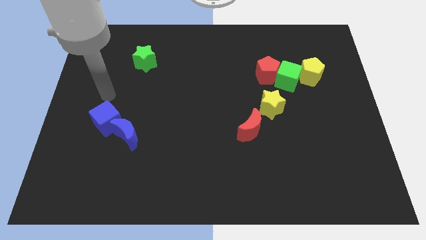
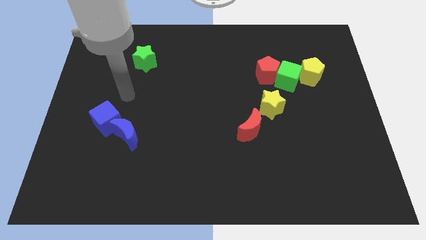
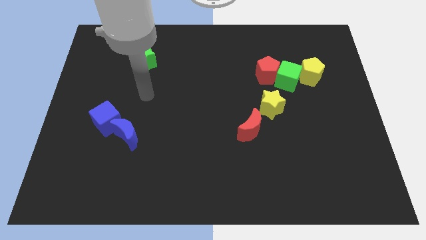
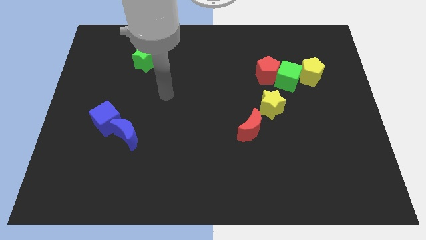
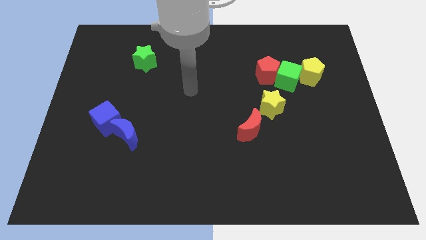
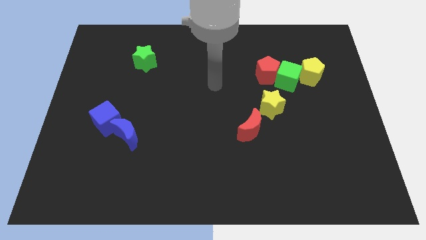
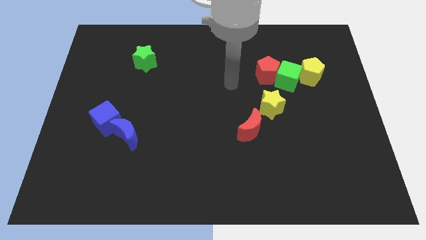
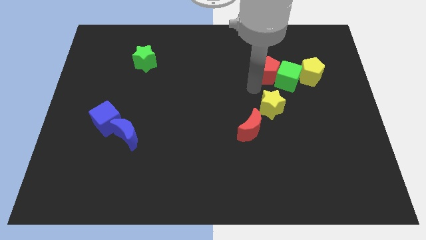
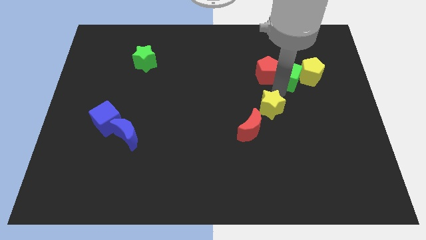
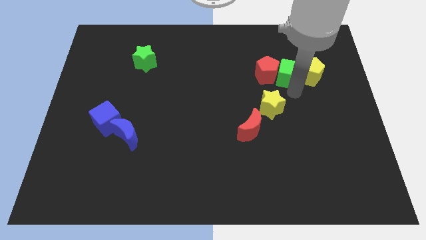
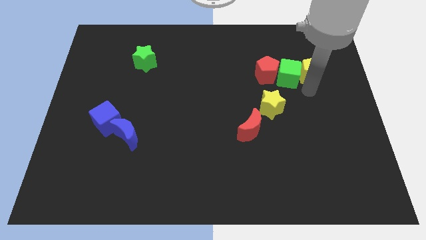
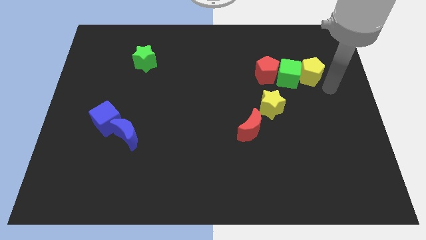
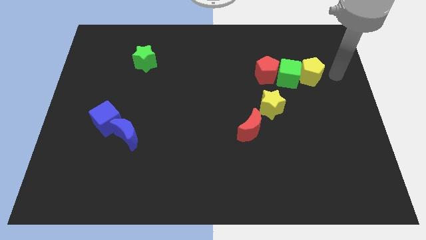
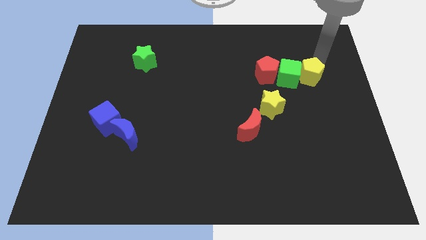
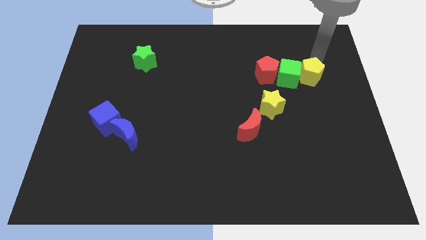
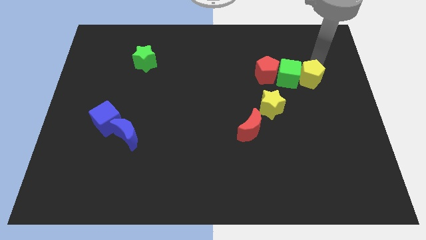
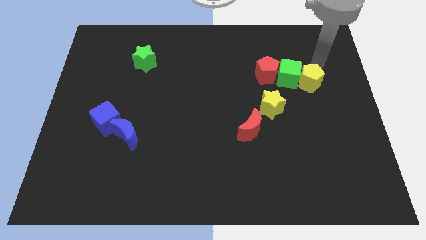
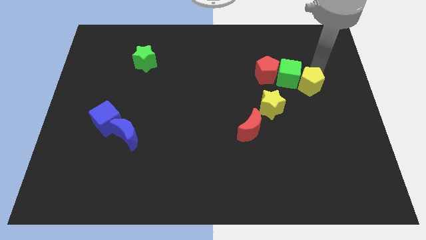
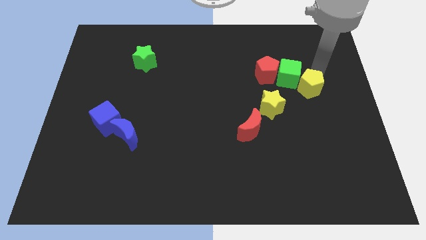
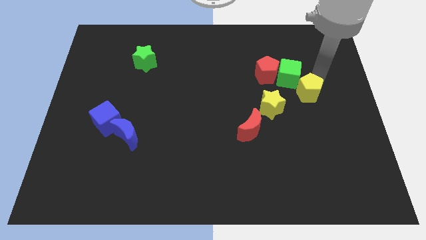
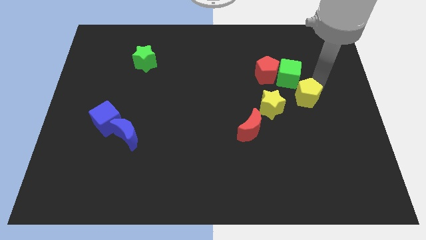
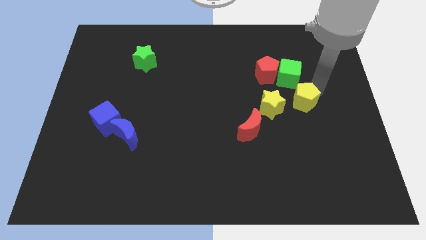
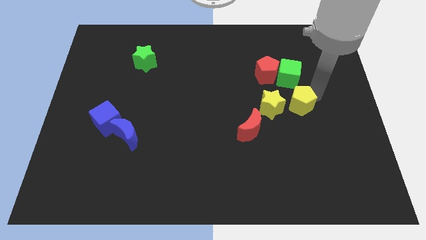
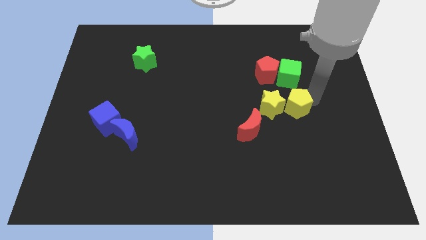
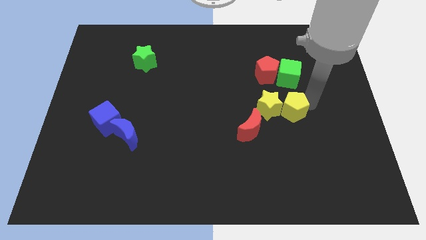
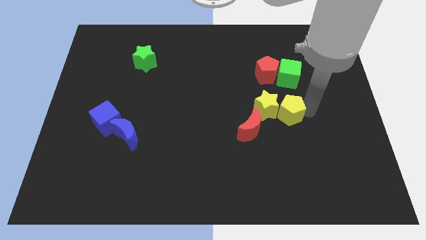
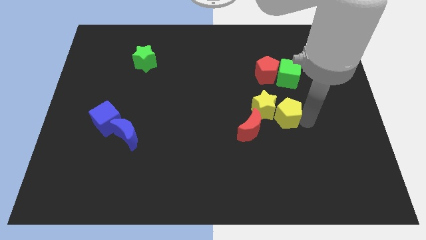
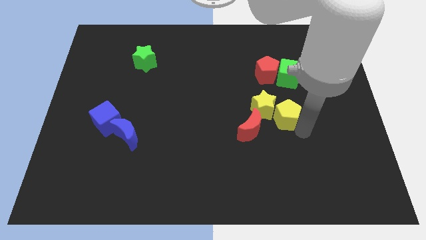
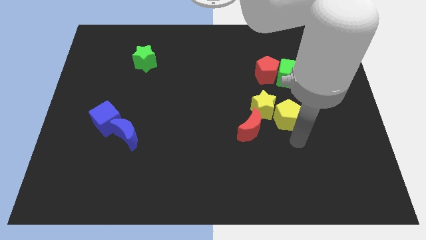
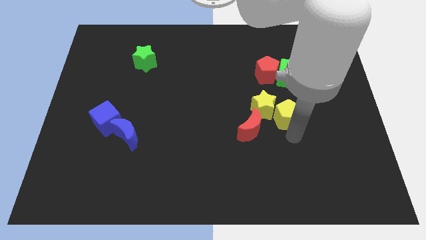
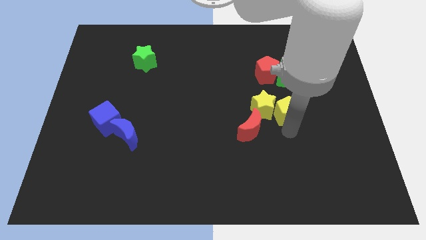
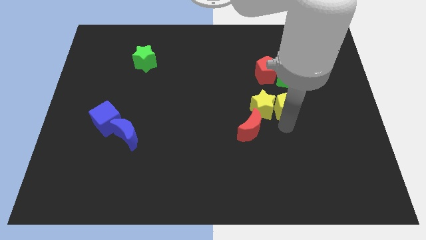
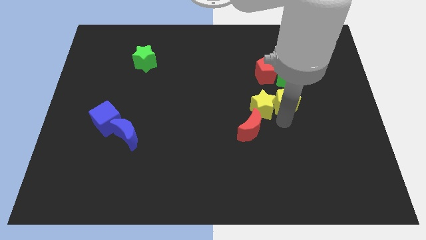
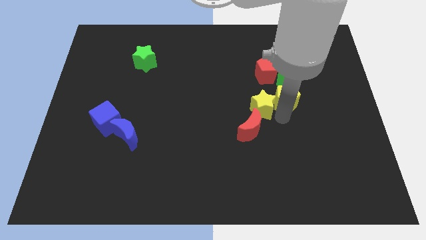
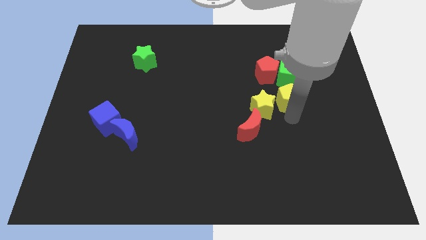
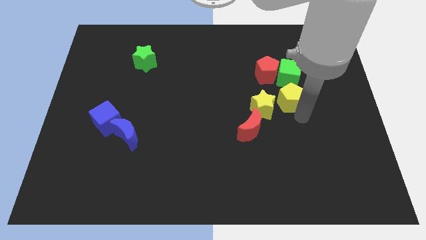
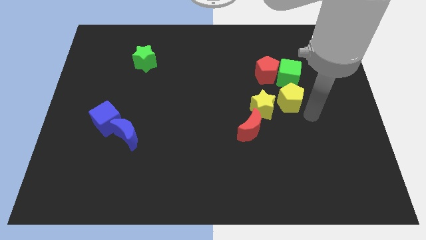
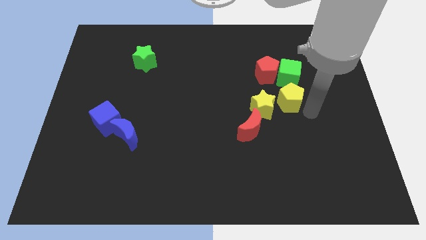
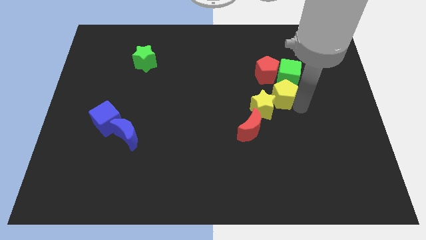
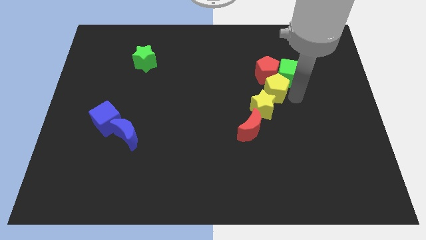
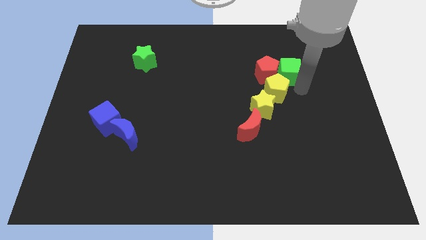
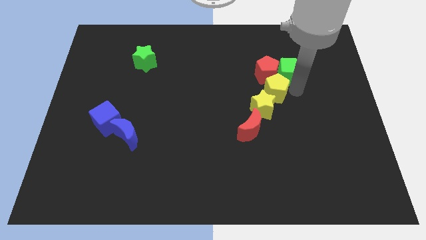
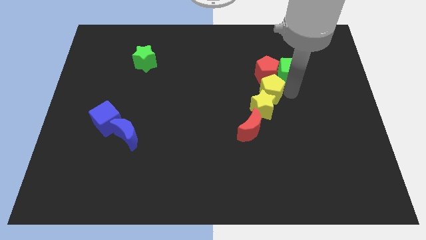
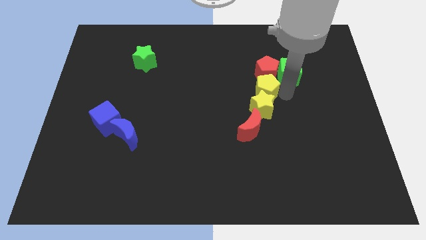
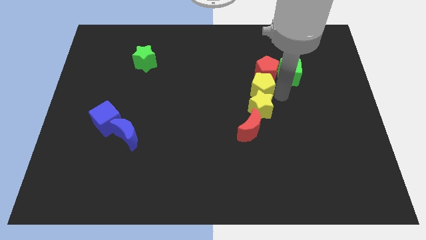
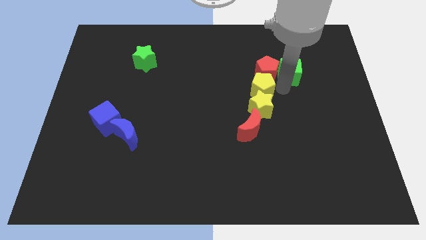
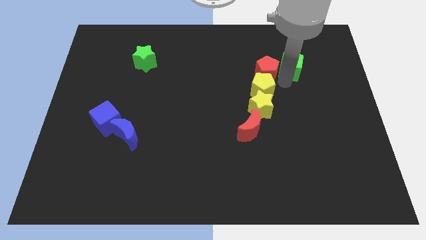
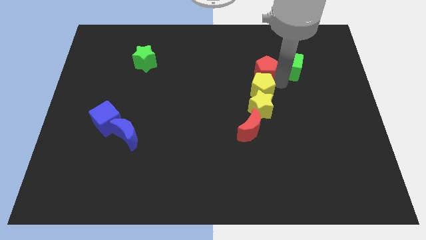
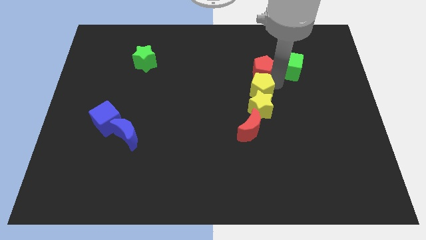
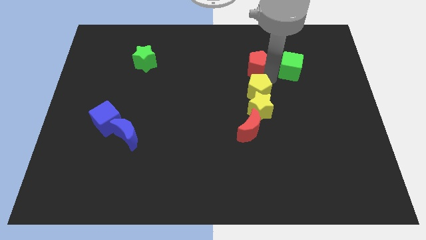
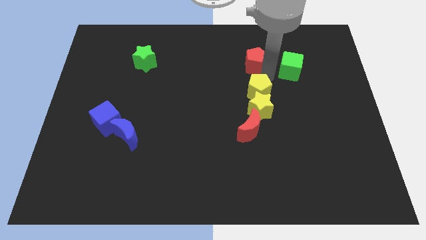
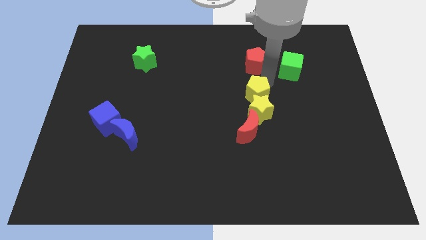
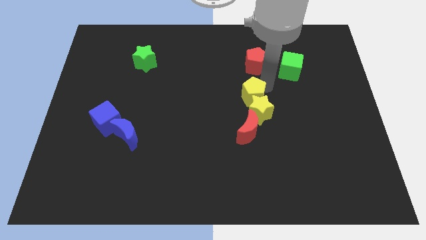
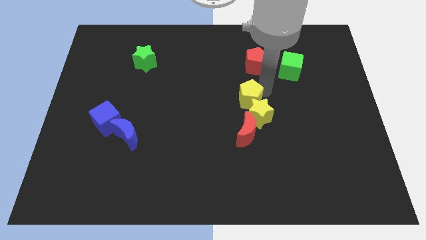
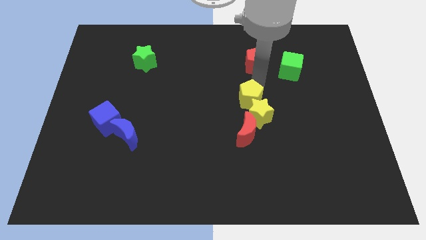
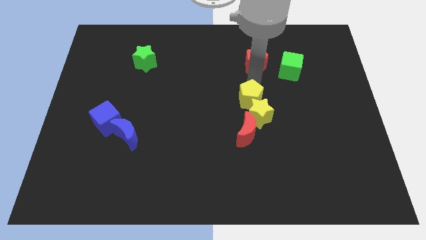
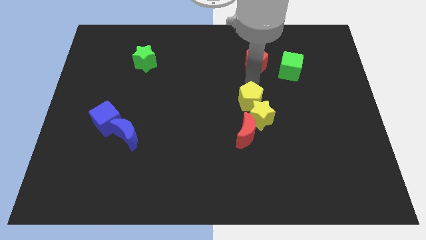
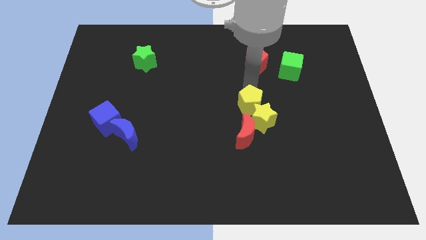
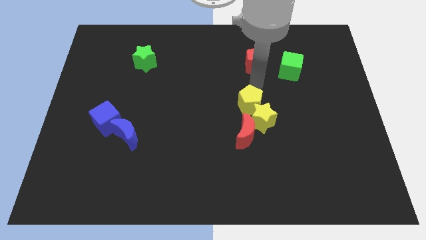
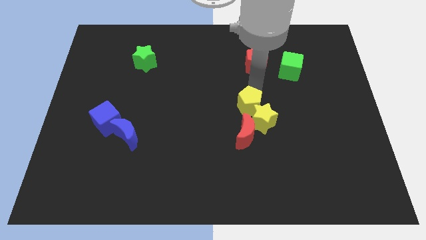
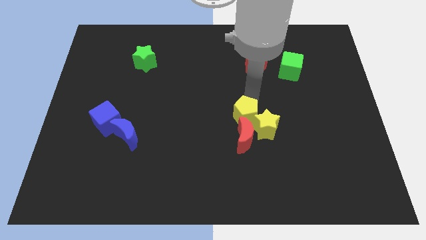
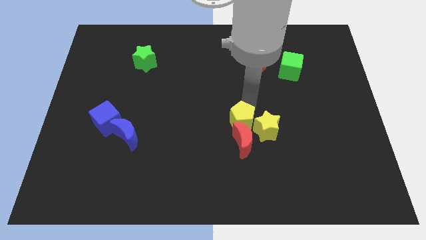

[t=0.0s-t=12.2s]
move the yellow pentagon towards the red moon
